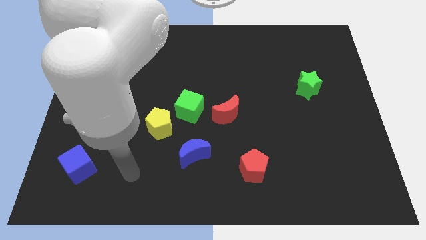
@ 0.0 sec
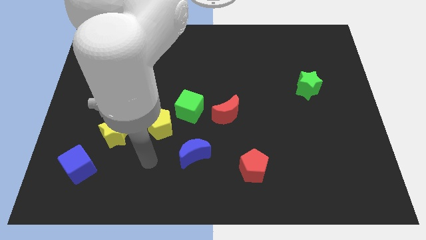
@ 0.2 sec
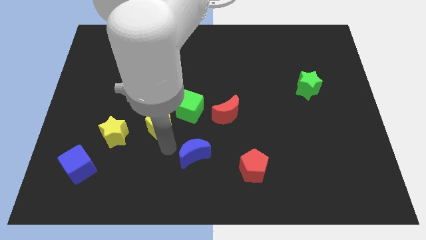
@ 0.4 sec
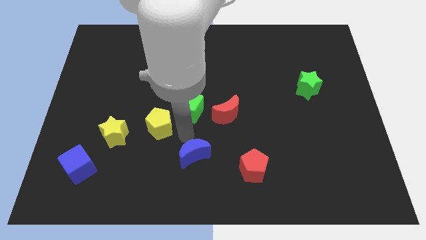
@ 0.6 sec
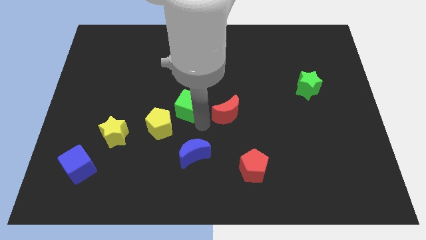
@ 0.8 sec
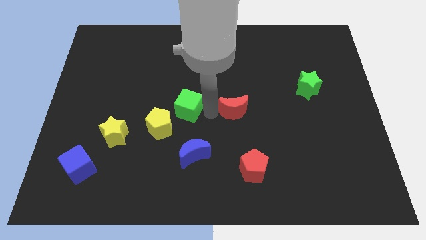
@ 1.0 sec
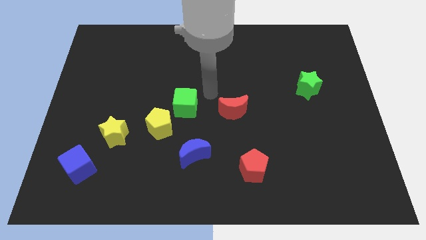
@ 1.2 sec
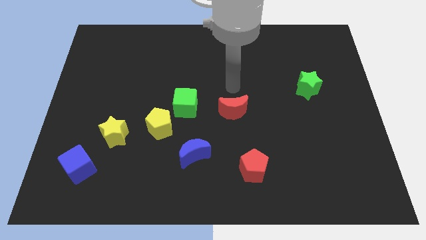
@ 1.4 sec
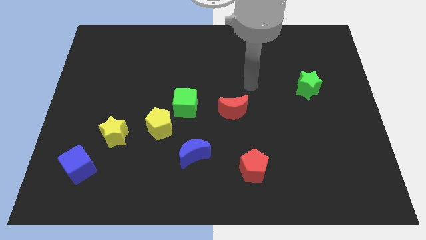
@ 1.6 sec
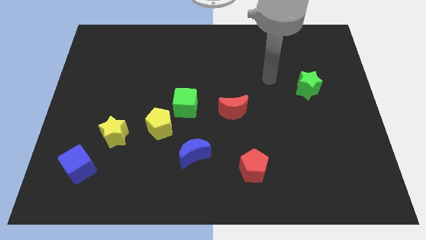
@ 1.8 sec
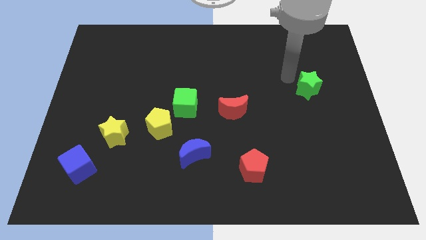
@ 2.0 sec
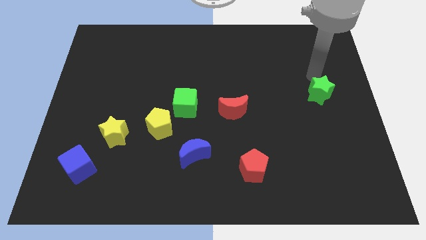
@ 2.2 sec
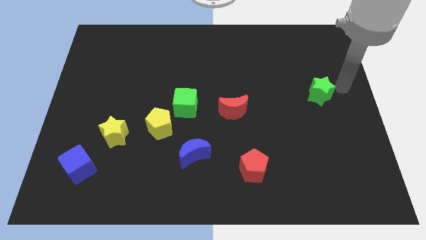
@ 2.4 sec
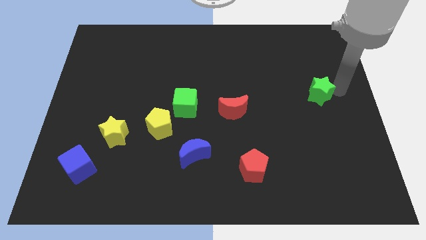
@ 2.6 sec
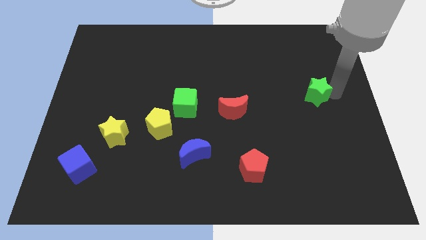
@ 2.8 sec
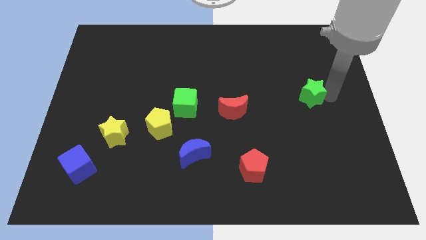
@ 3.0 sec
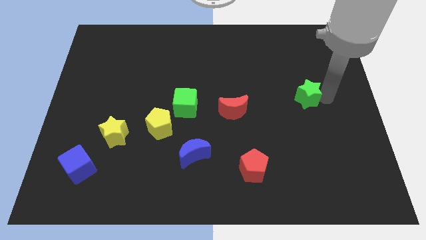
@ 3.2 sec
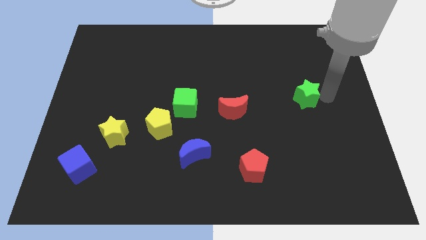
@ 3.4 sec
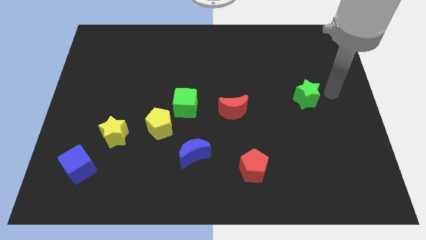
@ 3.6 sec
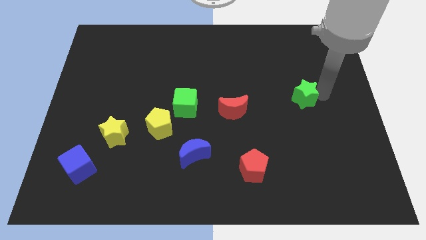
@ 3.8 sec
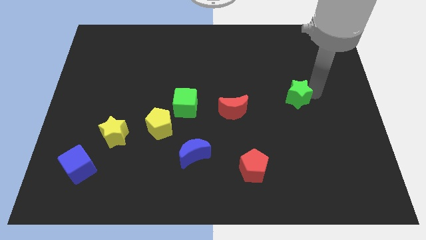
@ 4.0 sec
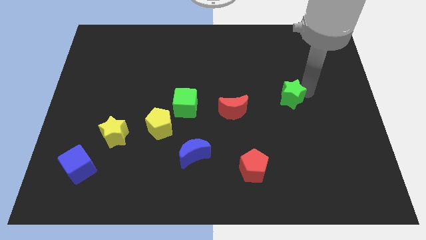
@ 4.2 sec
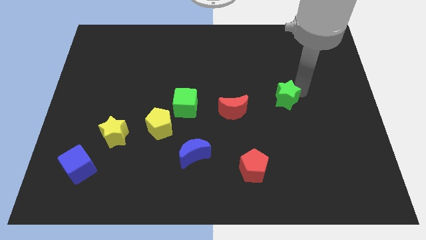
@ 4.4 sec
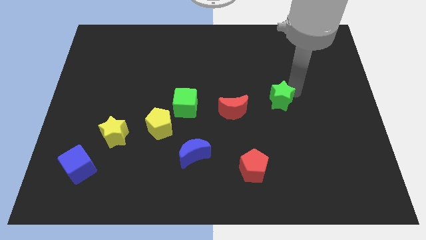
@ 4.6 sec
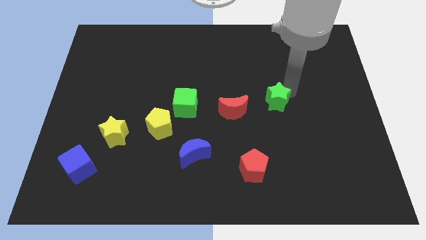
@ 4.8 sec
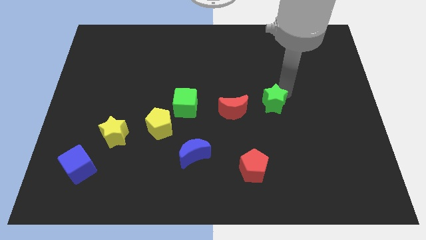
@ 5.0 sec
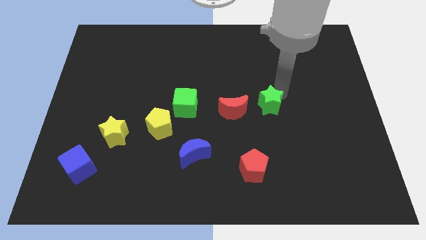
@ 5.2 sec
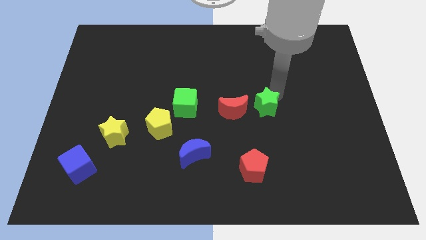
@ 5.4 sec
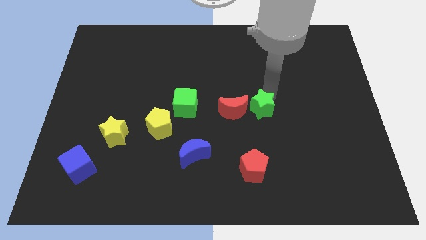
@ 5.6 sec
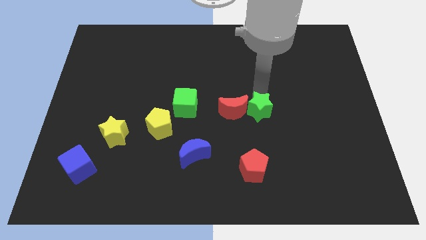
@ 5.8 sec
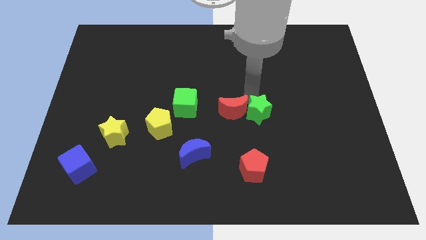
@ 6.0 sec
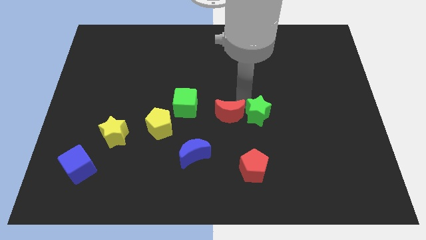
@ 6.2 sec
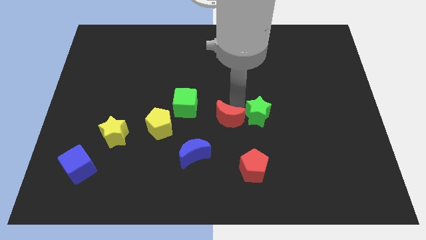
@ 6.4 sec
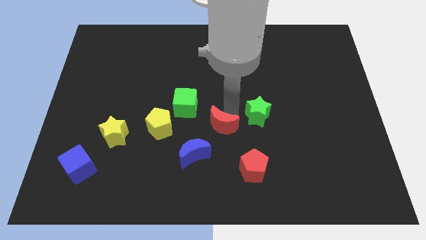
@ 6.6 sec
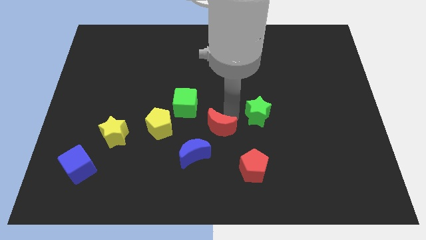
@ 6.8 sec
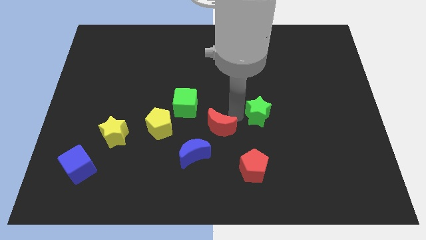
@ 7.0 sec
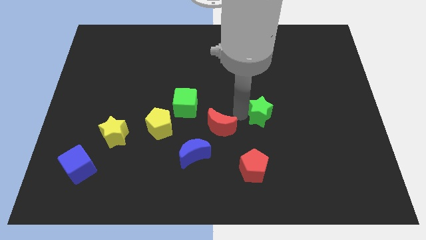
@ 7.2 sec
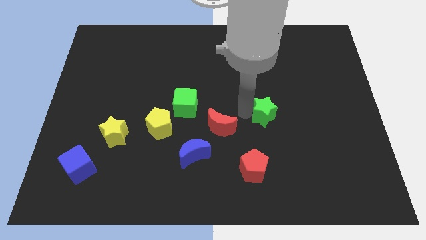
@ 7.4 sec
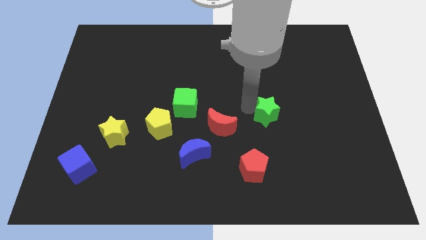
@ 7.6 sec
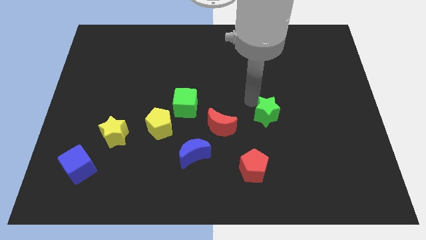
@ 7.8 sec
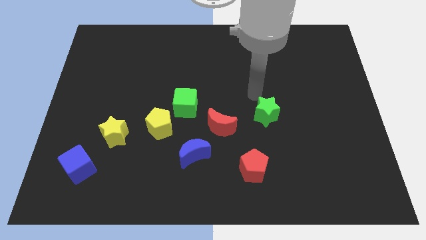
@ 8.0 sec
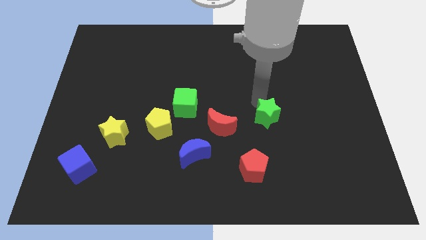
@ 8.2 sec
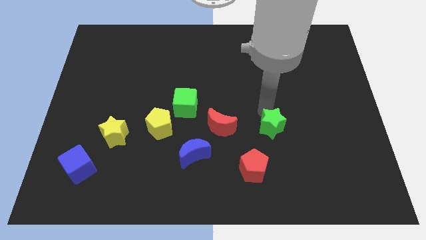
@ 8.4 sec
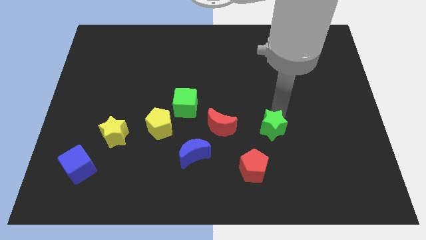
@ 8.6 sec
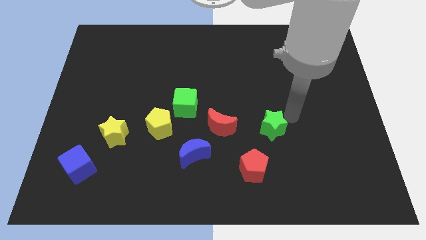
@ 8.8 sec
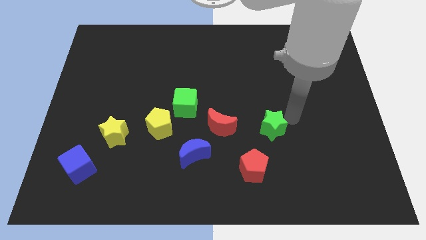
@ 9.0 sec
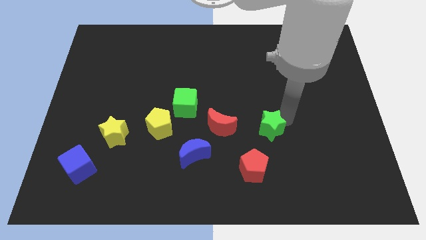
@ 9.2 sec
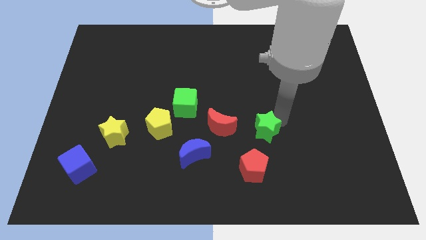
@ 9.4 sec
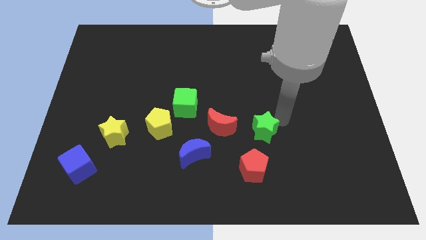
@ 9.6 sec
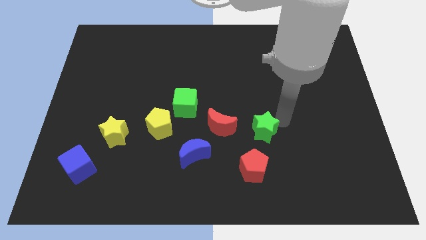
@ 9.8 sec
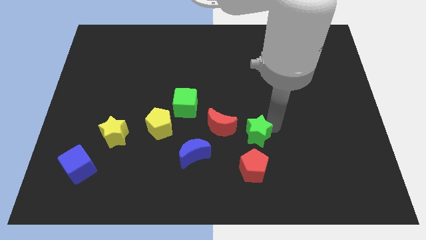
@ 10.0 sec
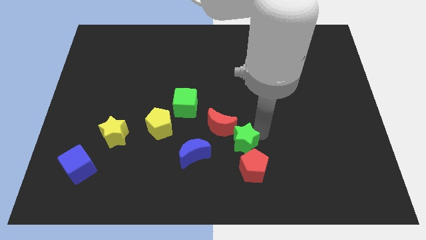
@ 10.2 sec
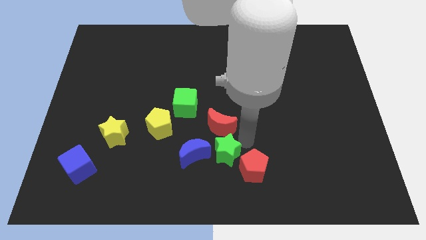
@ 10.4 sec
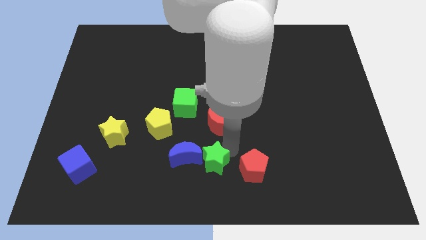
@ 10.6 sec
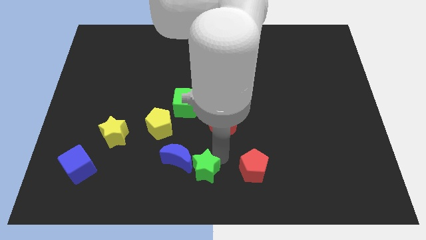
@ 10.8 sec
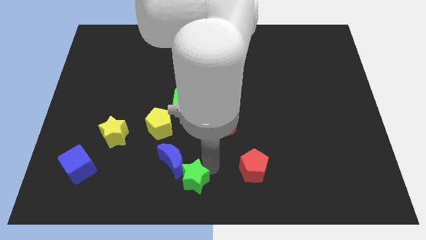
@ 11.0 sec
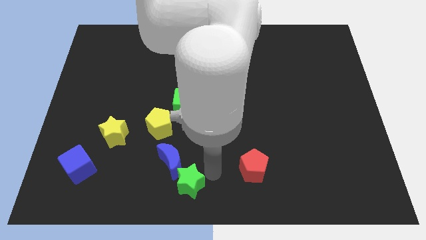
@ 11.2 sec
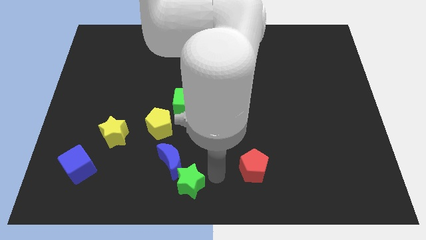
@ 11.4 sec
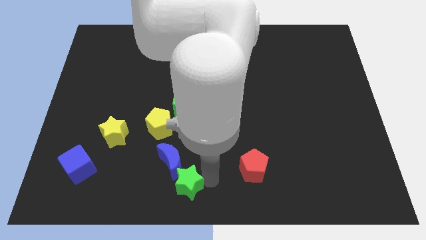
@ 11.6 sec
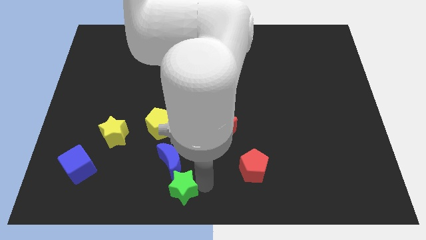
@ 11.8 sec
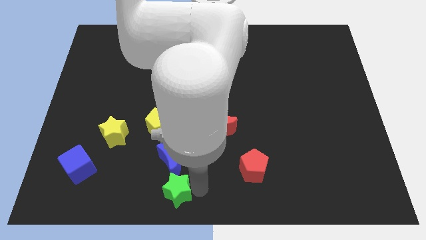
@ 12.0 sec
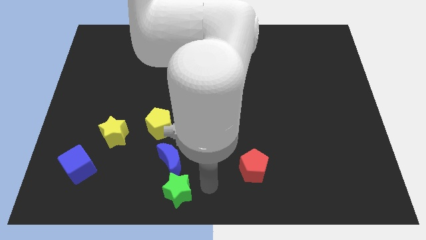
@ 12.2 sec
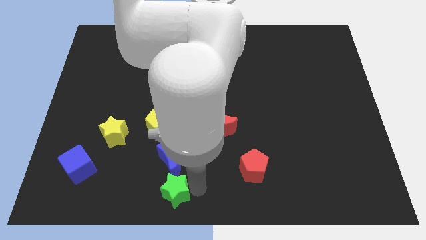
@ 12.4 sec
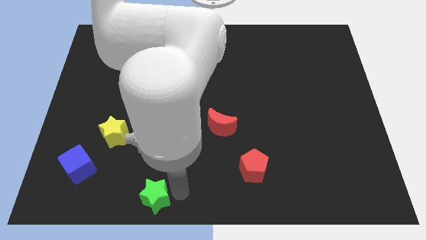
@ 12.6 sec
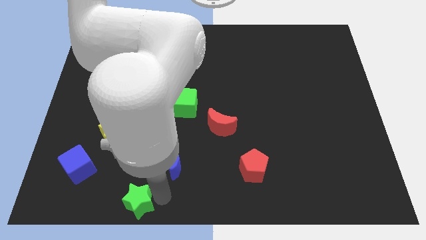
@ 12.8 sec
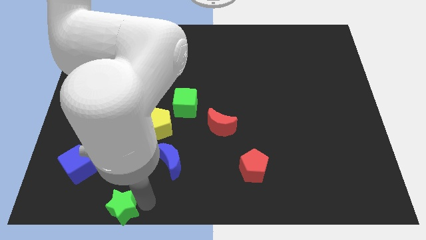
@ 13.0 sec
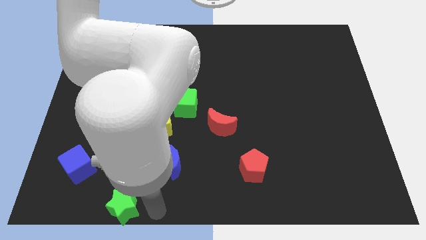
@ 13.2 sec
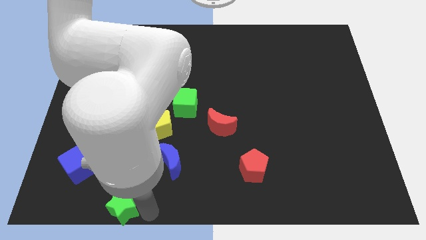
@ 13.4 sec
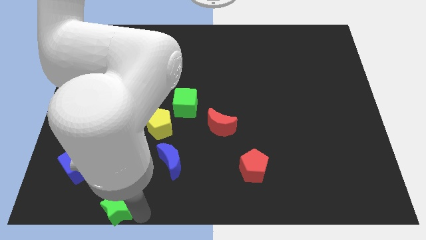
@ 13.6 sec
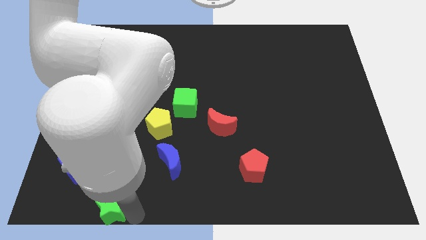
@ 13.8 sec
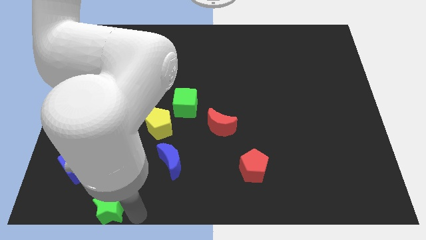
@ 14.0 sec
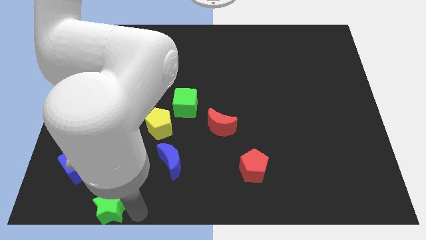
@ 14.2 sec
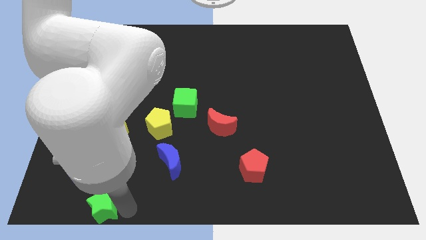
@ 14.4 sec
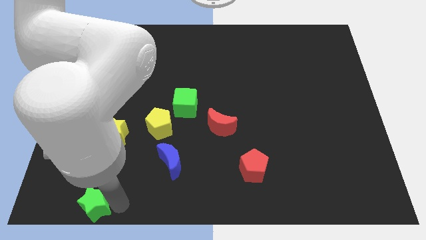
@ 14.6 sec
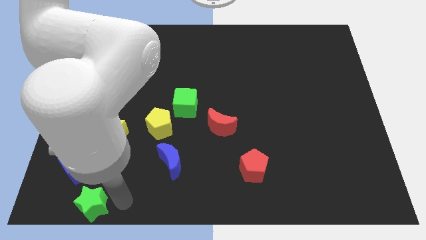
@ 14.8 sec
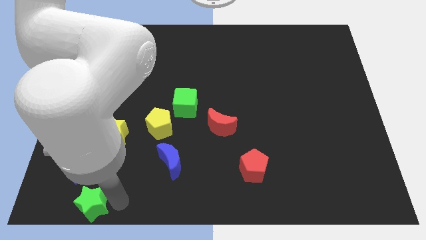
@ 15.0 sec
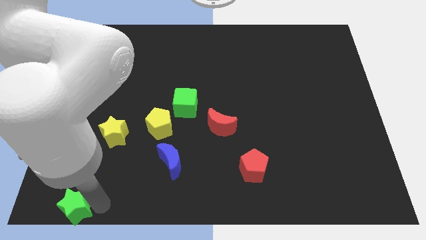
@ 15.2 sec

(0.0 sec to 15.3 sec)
move the green star to the lower left corner
